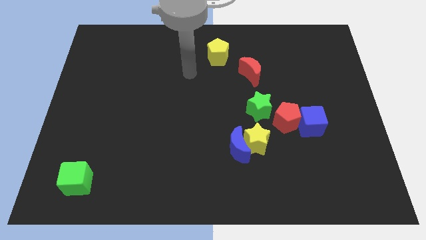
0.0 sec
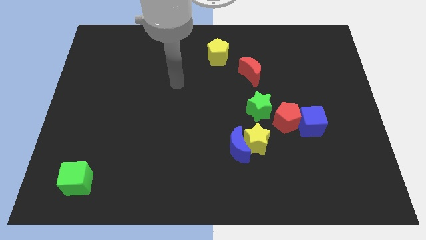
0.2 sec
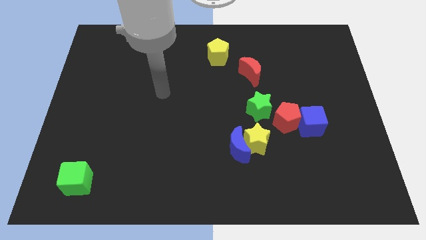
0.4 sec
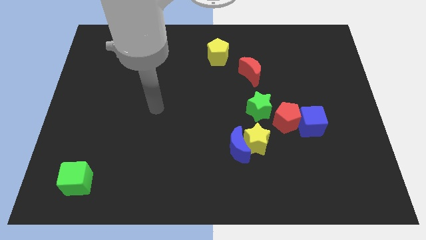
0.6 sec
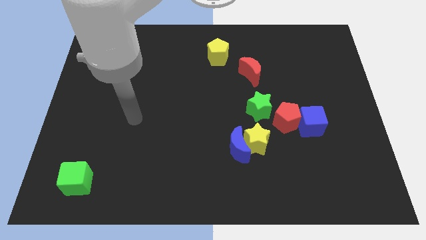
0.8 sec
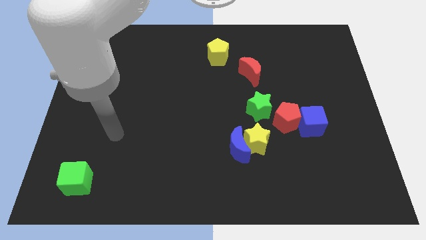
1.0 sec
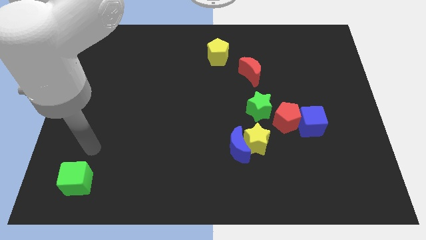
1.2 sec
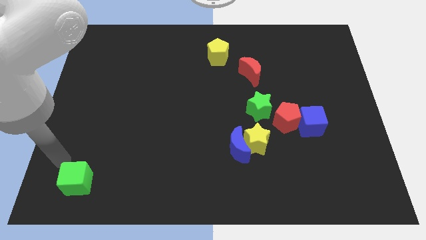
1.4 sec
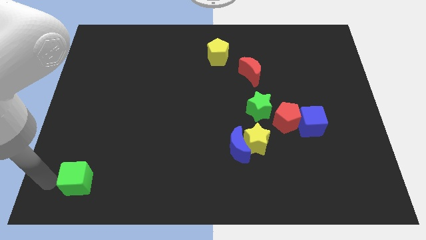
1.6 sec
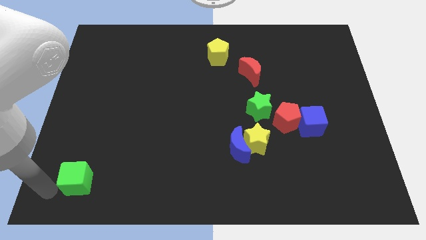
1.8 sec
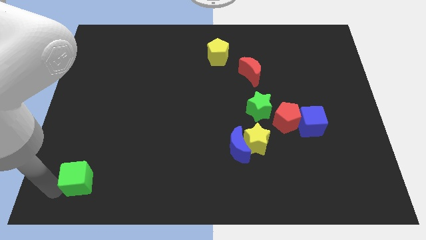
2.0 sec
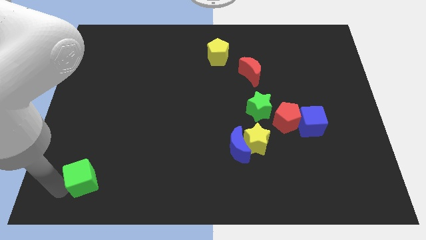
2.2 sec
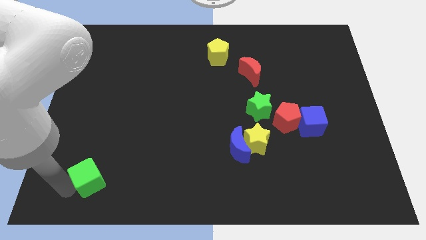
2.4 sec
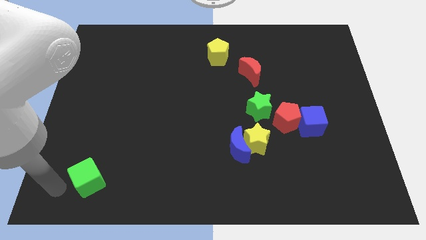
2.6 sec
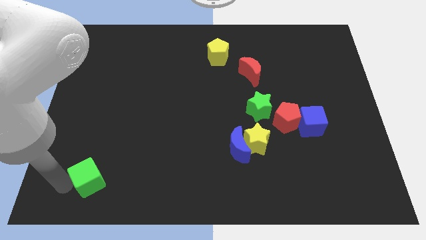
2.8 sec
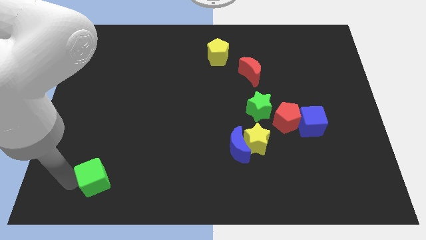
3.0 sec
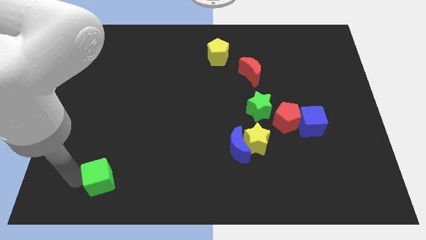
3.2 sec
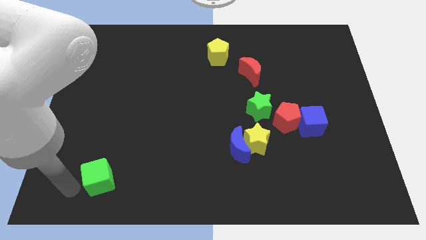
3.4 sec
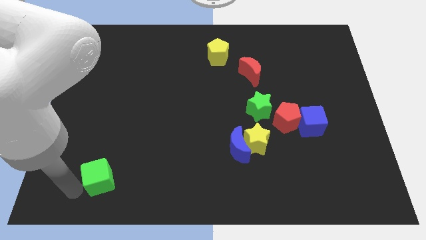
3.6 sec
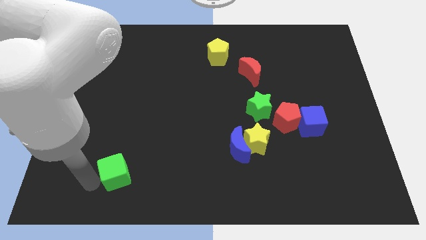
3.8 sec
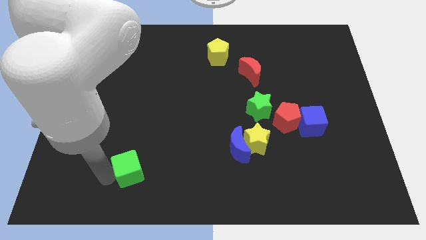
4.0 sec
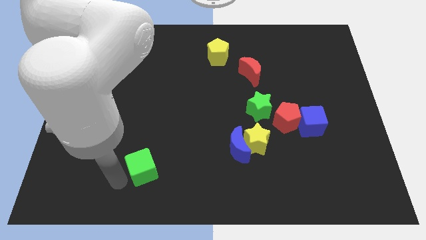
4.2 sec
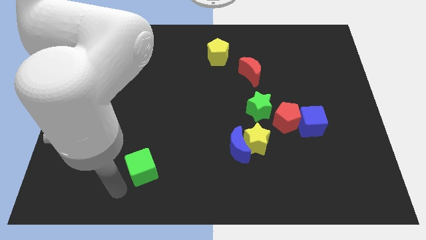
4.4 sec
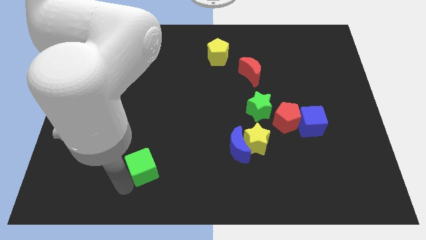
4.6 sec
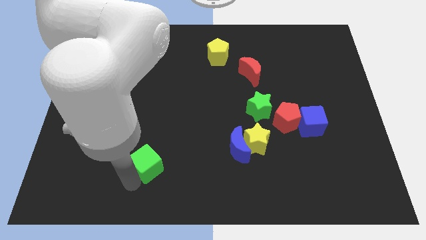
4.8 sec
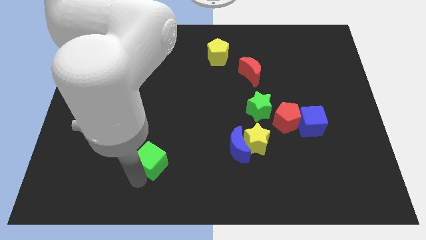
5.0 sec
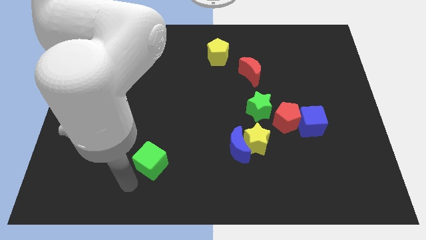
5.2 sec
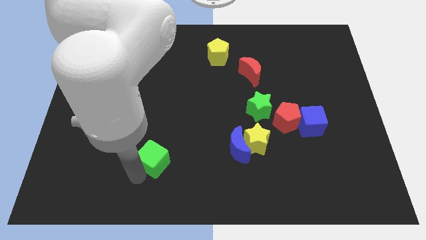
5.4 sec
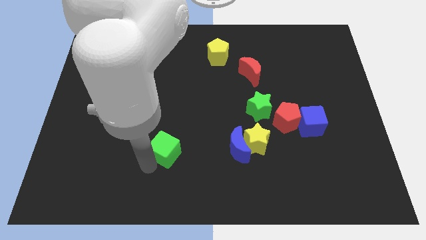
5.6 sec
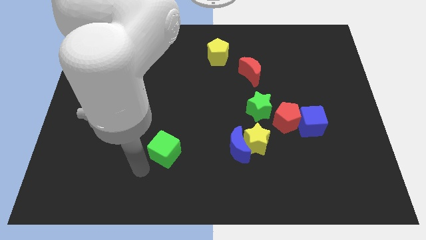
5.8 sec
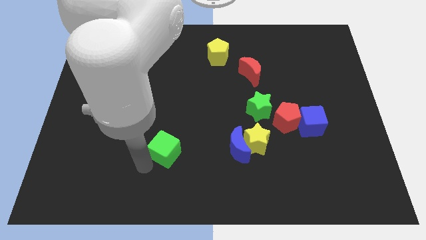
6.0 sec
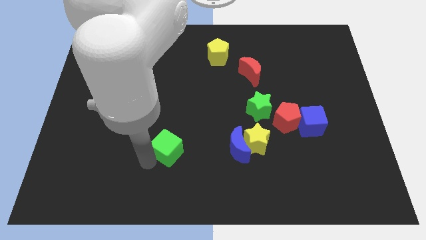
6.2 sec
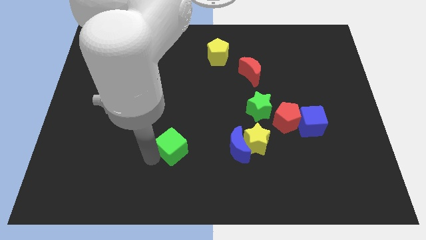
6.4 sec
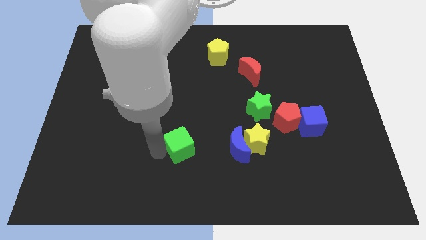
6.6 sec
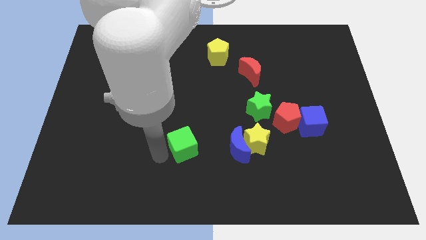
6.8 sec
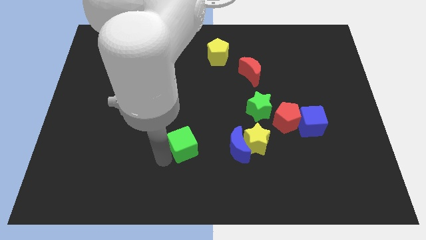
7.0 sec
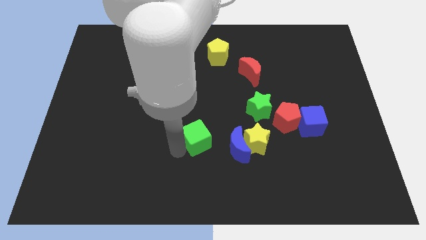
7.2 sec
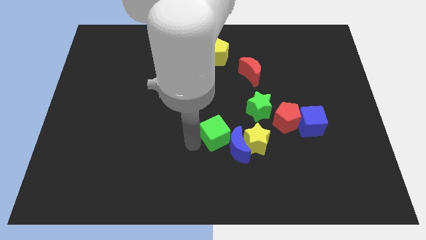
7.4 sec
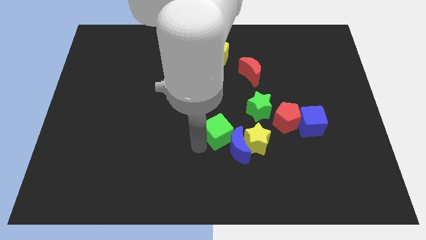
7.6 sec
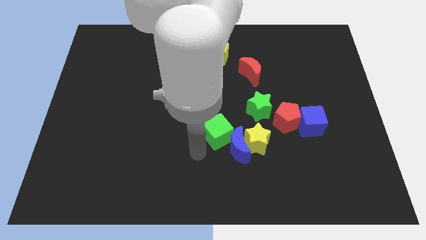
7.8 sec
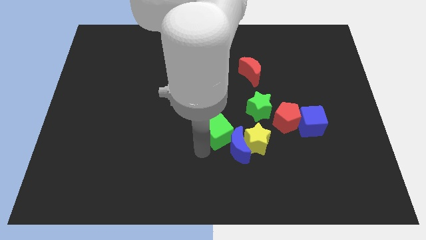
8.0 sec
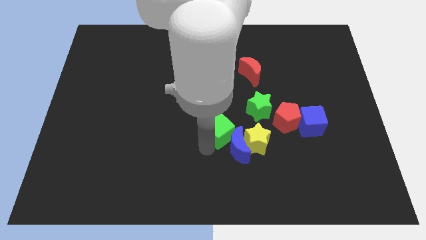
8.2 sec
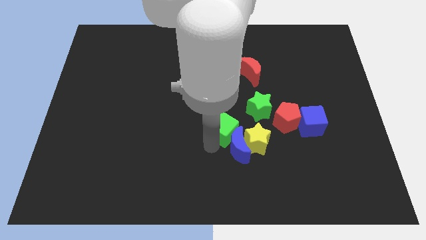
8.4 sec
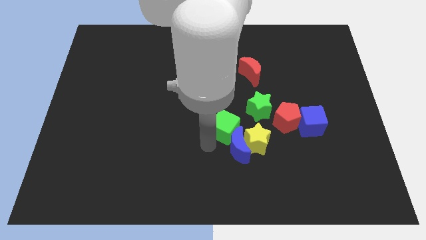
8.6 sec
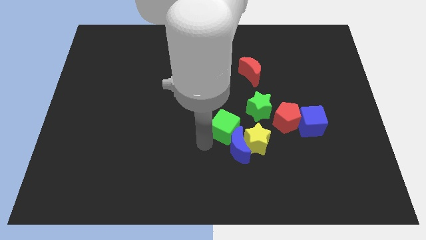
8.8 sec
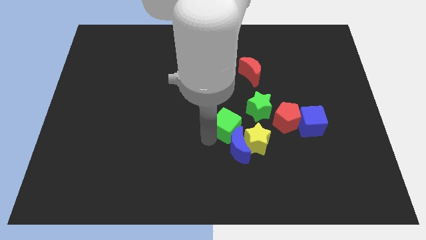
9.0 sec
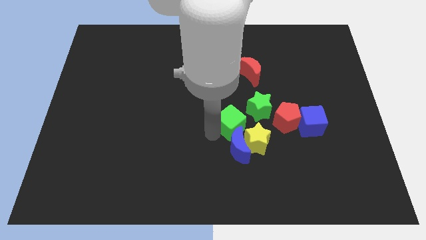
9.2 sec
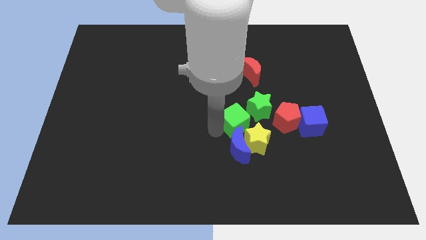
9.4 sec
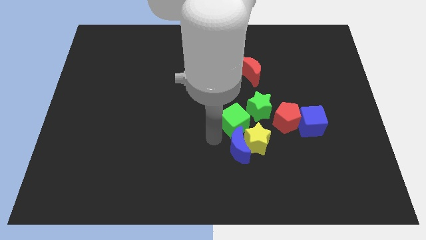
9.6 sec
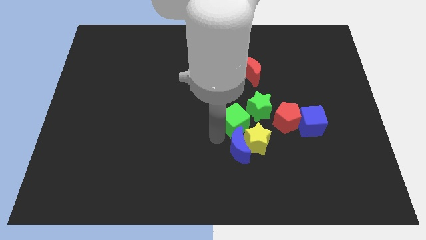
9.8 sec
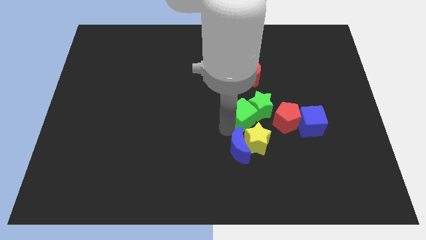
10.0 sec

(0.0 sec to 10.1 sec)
slide the green cube close to the green star

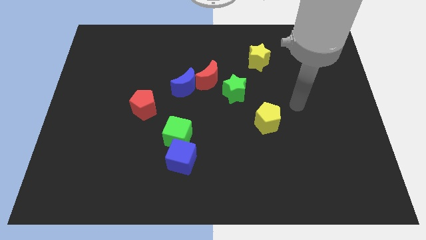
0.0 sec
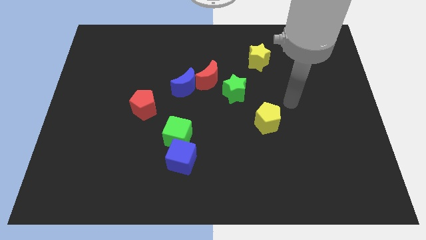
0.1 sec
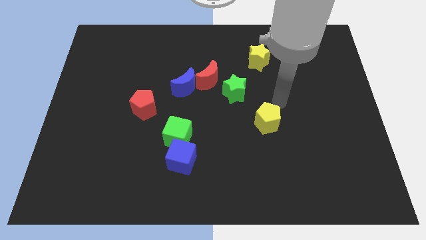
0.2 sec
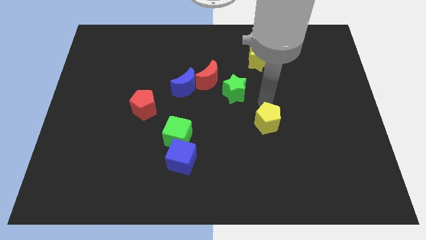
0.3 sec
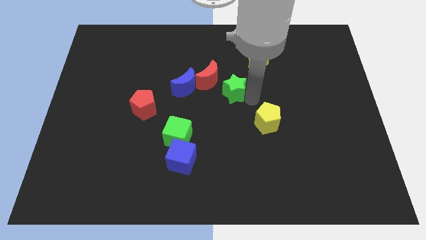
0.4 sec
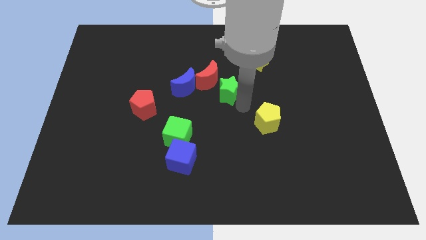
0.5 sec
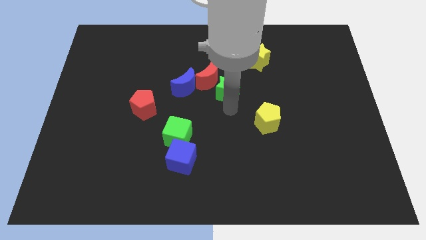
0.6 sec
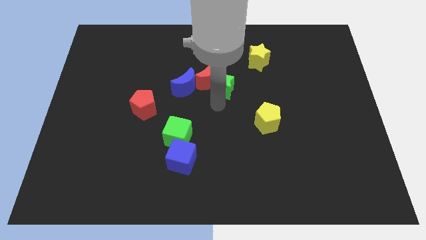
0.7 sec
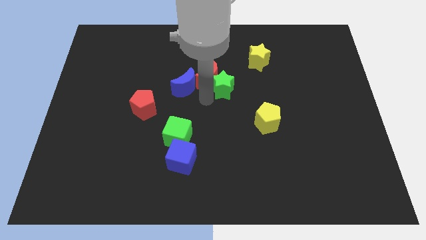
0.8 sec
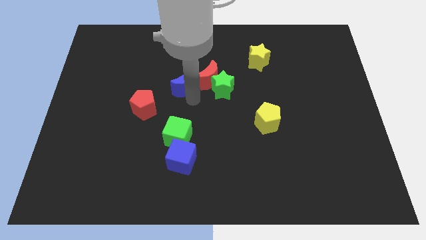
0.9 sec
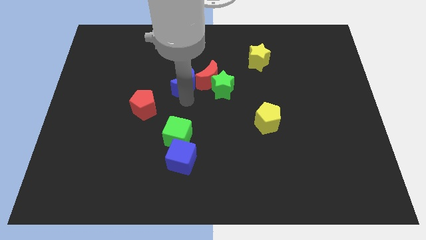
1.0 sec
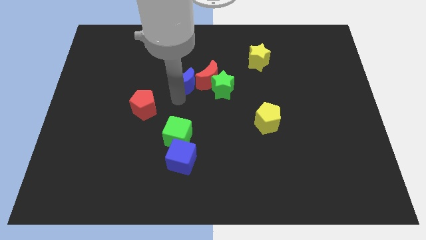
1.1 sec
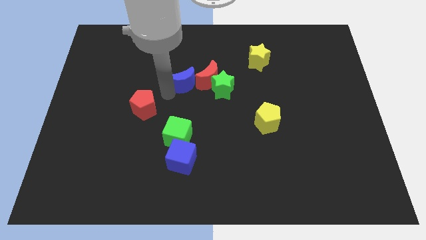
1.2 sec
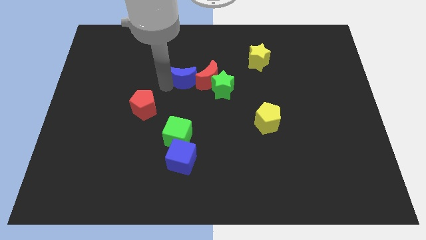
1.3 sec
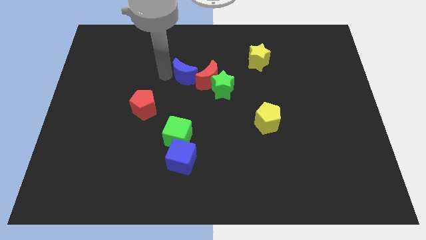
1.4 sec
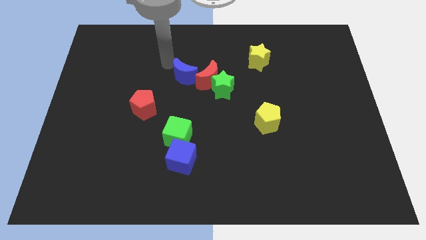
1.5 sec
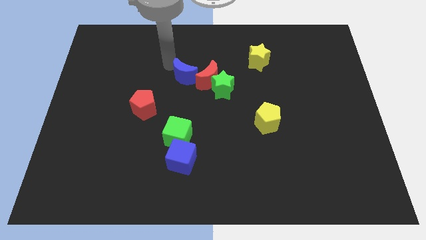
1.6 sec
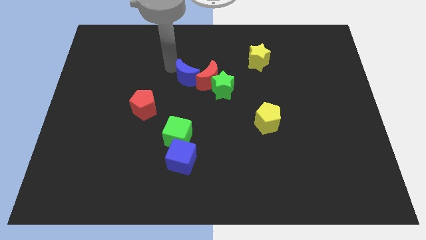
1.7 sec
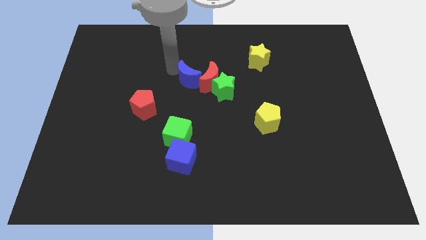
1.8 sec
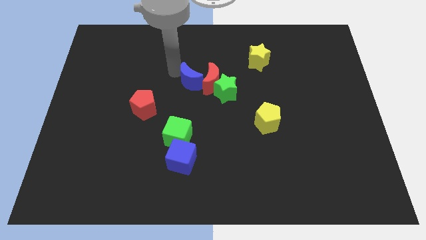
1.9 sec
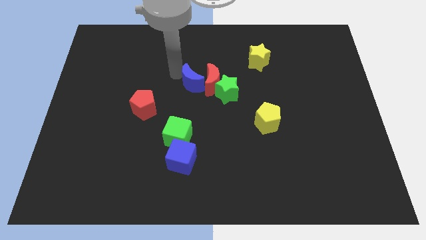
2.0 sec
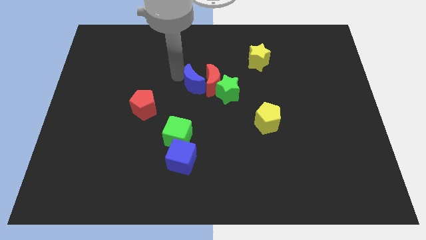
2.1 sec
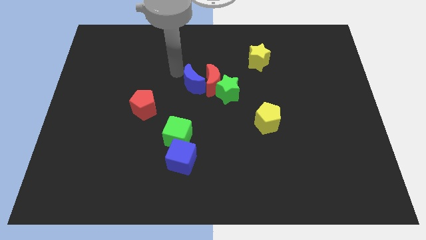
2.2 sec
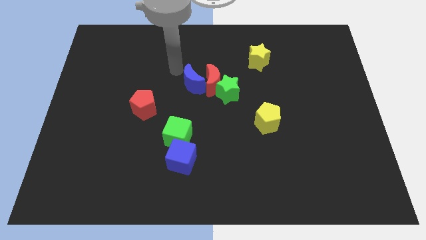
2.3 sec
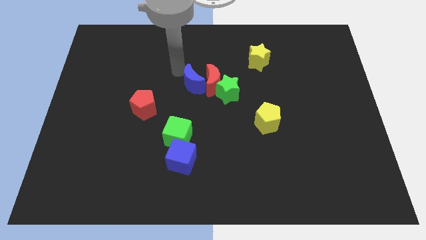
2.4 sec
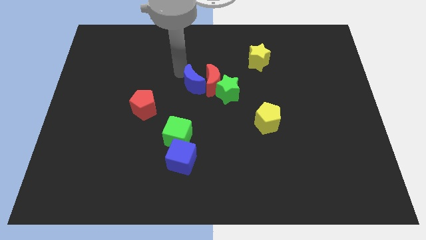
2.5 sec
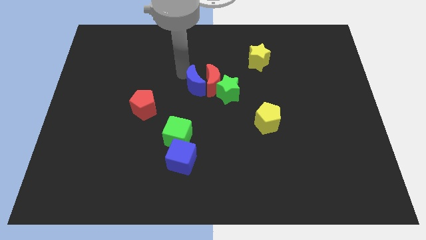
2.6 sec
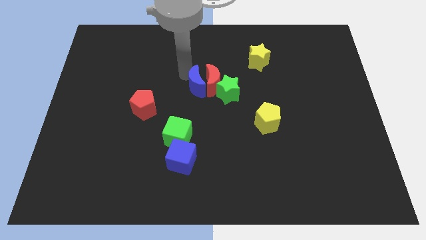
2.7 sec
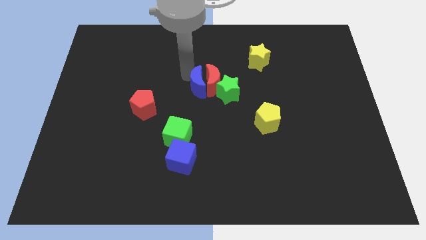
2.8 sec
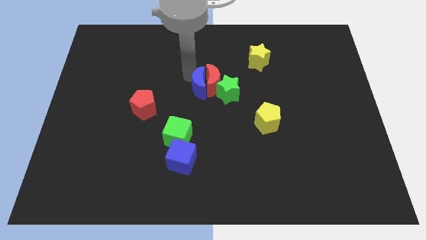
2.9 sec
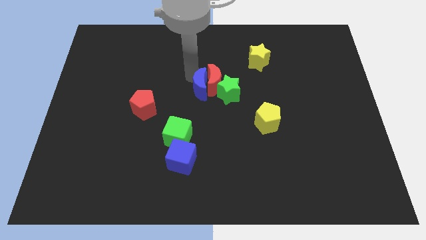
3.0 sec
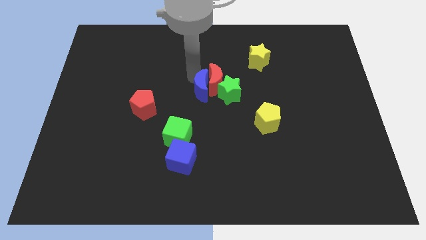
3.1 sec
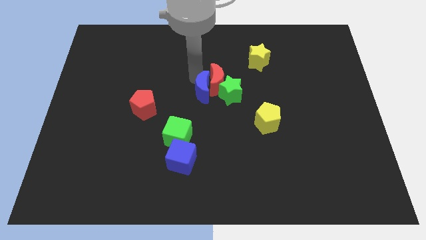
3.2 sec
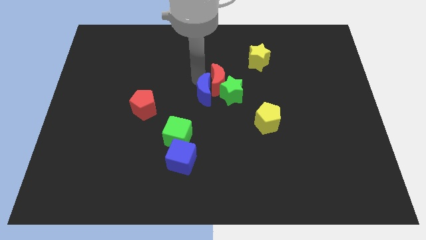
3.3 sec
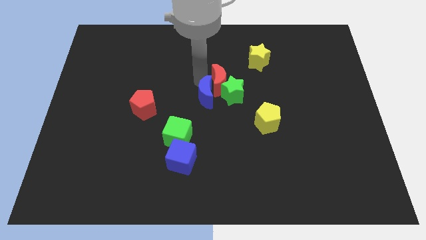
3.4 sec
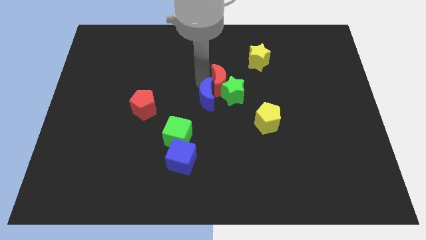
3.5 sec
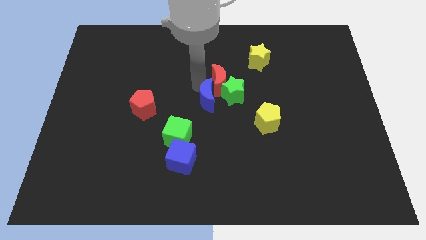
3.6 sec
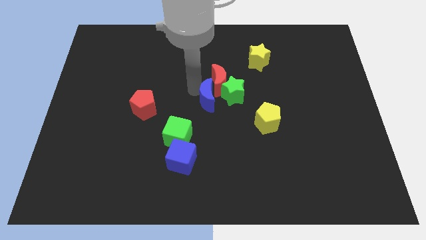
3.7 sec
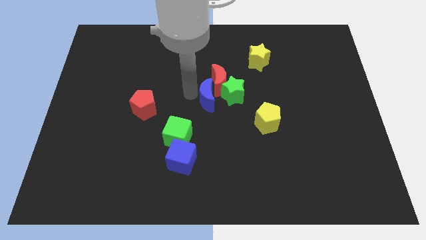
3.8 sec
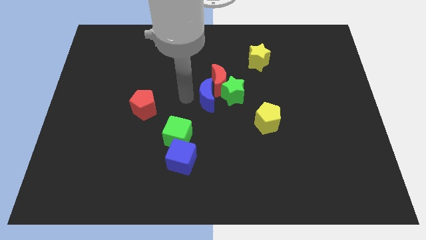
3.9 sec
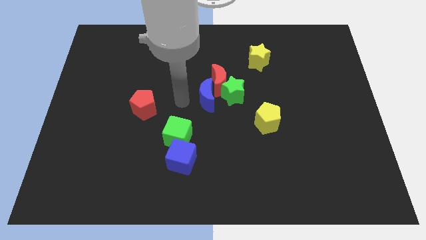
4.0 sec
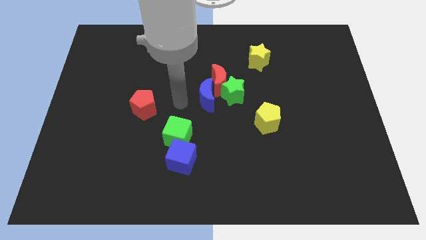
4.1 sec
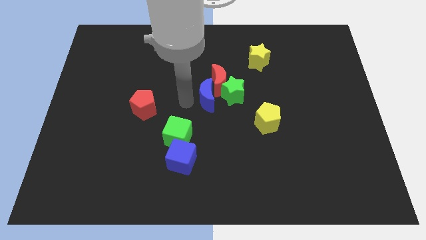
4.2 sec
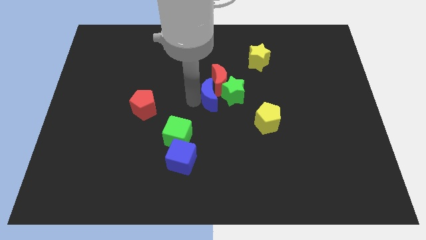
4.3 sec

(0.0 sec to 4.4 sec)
push the blue moon next to the green star
